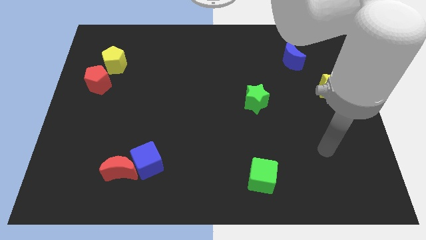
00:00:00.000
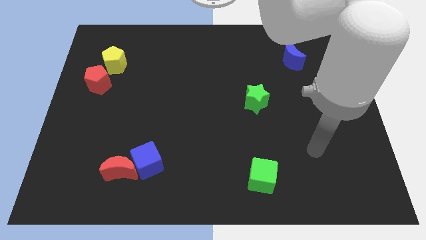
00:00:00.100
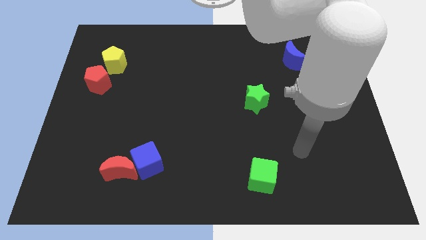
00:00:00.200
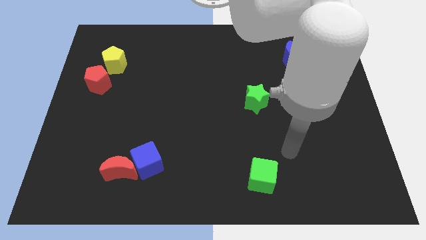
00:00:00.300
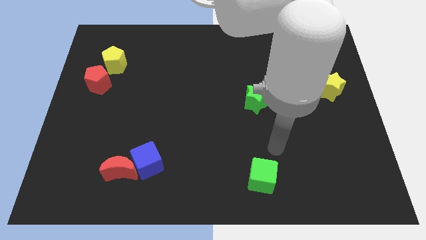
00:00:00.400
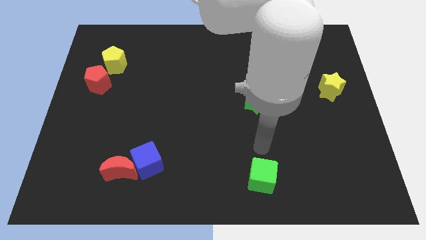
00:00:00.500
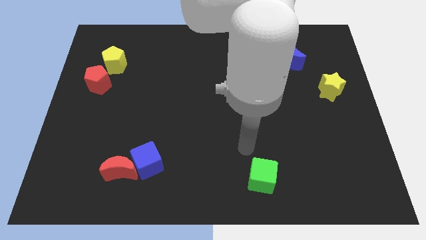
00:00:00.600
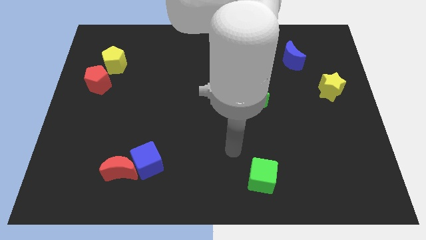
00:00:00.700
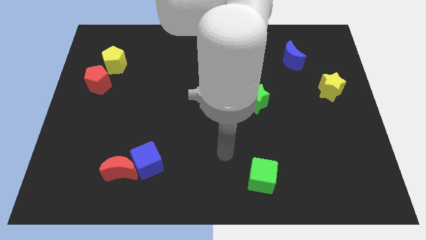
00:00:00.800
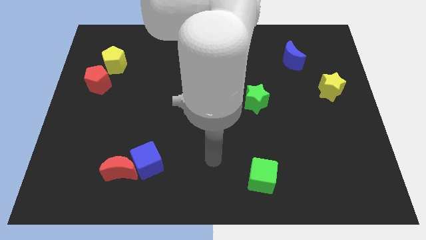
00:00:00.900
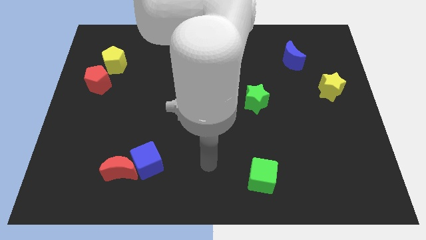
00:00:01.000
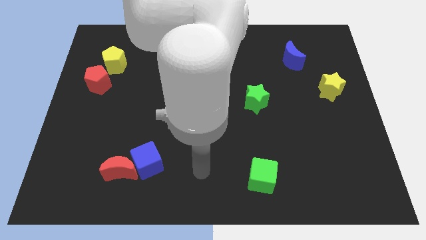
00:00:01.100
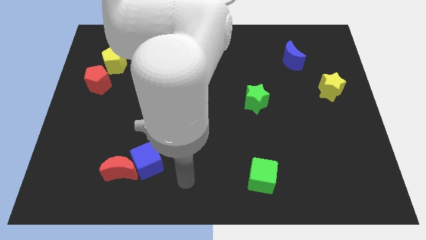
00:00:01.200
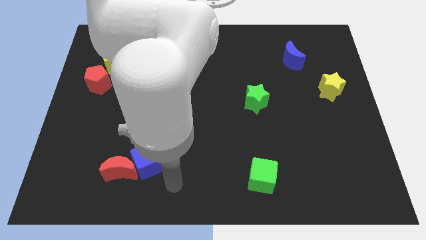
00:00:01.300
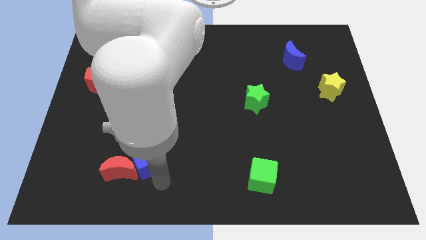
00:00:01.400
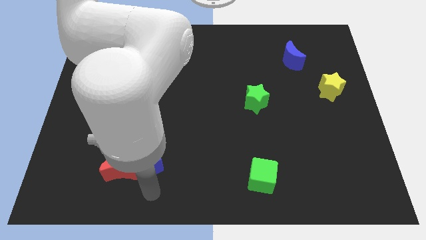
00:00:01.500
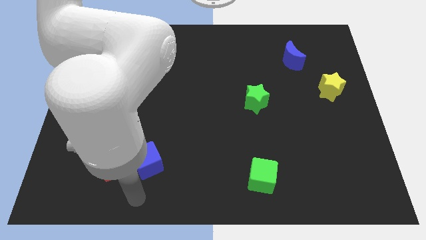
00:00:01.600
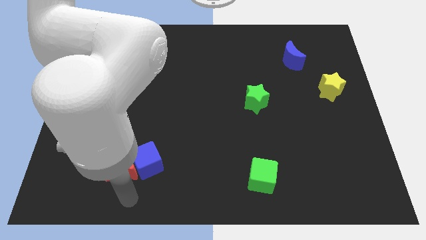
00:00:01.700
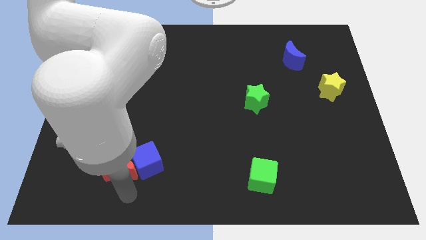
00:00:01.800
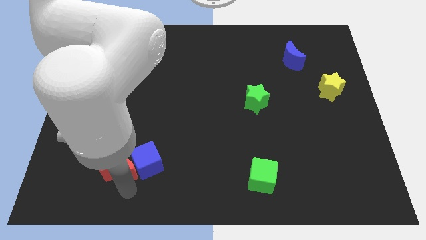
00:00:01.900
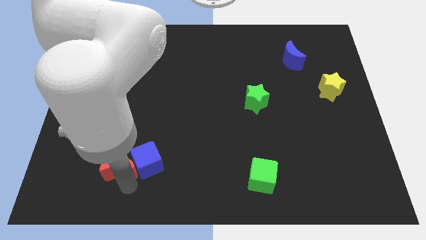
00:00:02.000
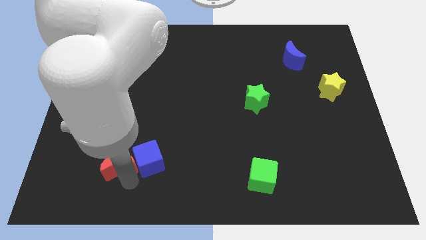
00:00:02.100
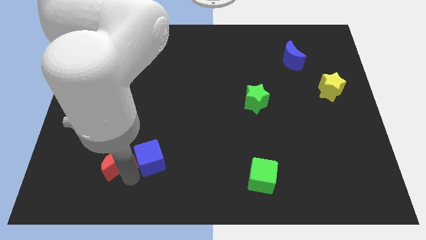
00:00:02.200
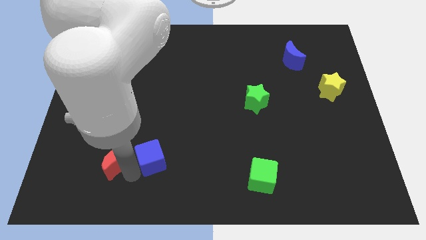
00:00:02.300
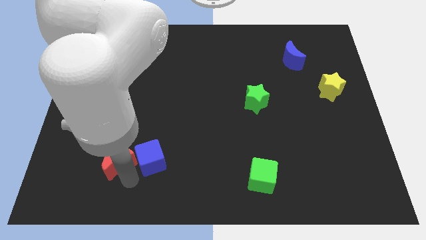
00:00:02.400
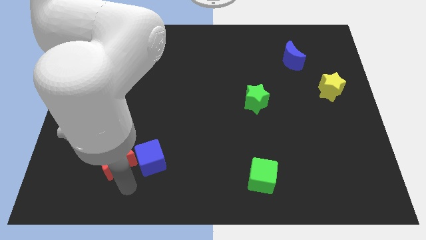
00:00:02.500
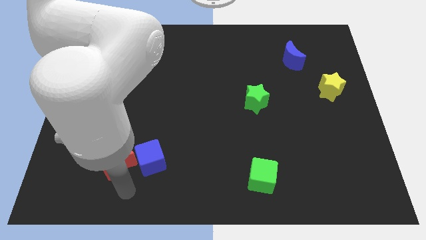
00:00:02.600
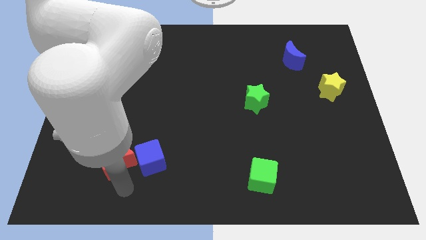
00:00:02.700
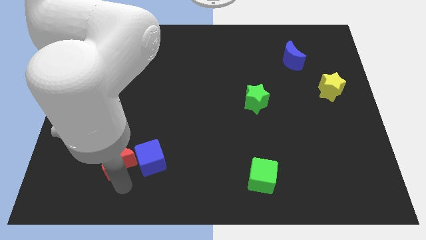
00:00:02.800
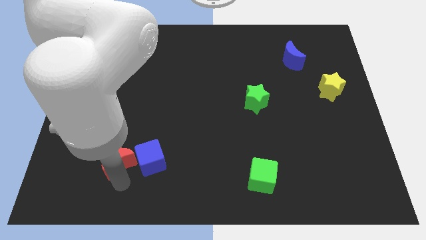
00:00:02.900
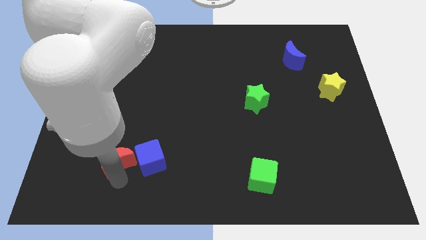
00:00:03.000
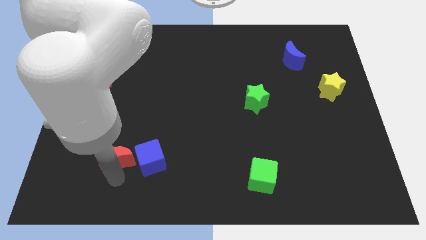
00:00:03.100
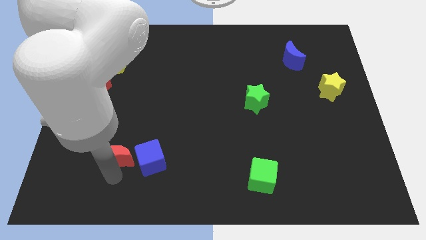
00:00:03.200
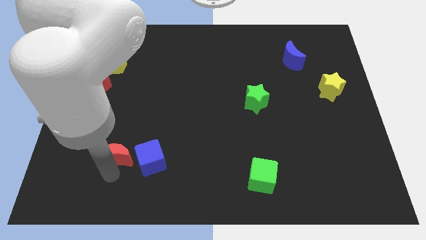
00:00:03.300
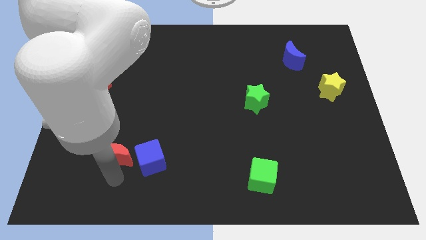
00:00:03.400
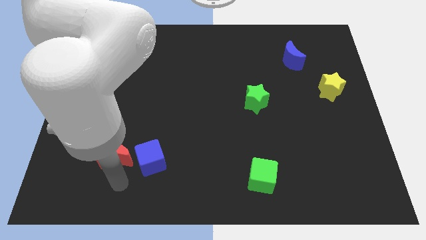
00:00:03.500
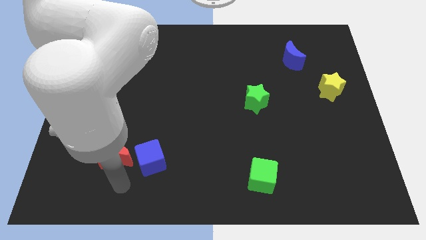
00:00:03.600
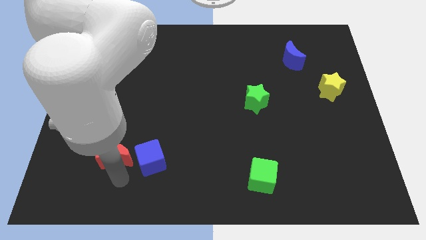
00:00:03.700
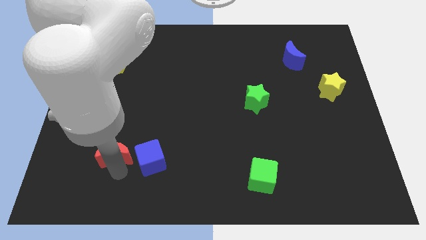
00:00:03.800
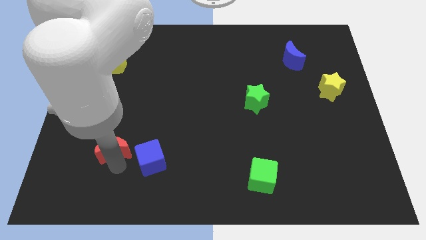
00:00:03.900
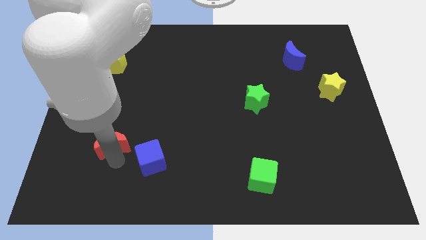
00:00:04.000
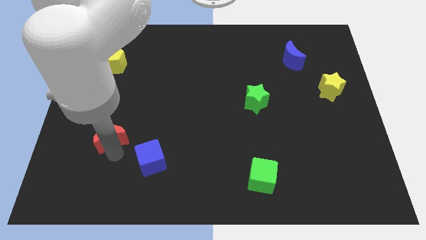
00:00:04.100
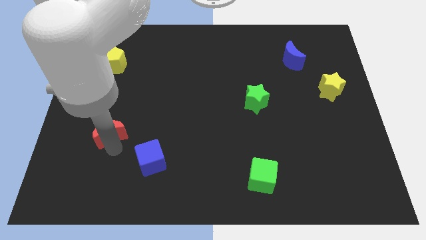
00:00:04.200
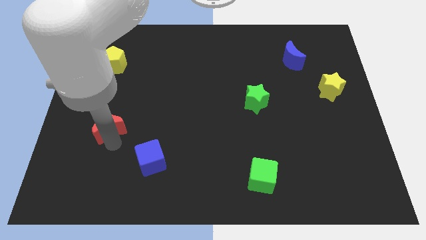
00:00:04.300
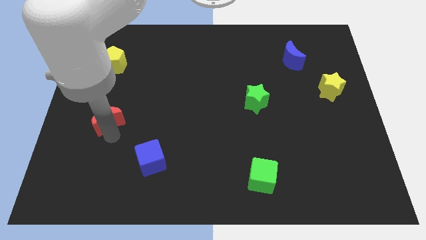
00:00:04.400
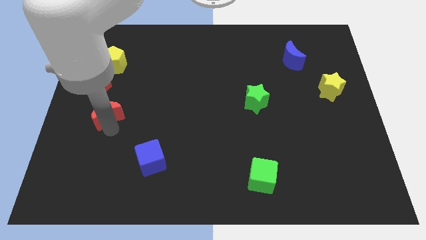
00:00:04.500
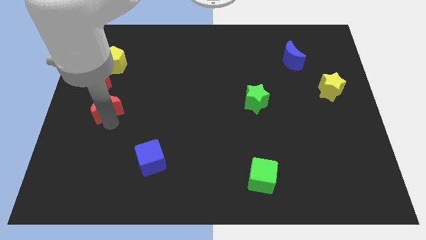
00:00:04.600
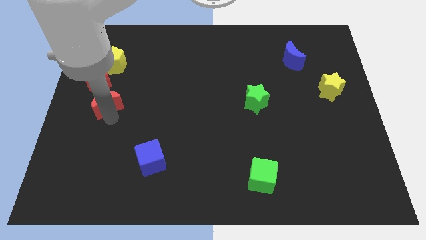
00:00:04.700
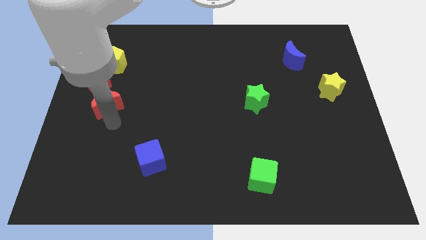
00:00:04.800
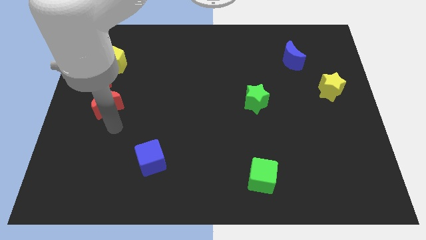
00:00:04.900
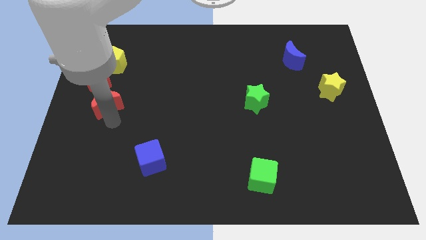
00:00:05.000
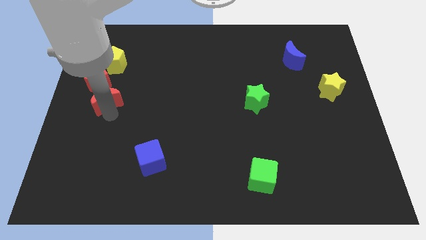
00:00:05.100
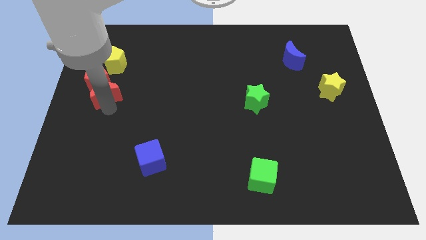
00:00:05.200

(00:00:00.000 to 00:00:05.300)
put the red moon close to the red pentagon

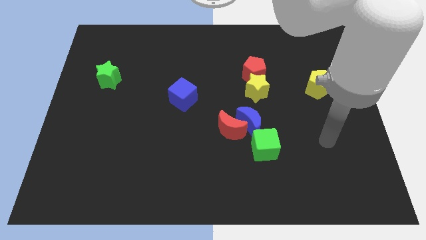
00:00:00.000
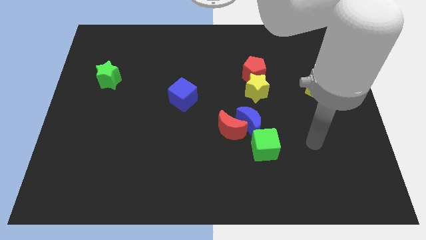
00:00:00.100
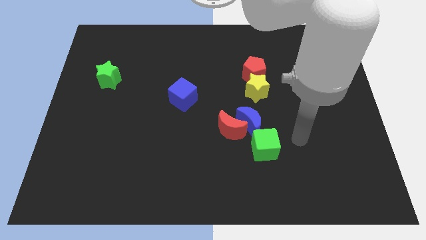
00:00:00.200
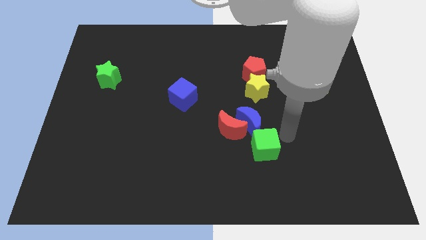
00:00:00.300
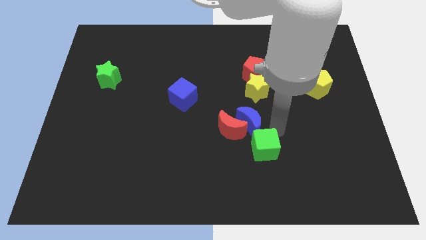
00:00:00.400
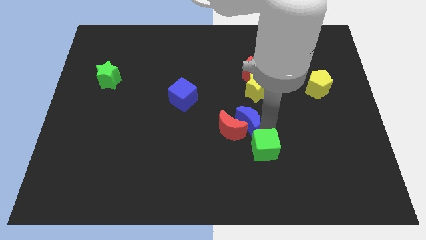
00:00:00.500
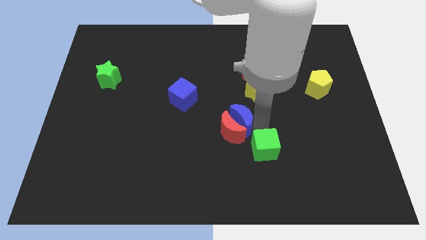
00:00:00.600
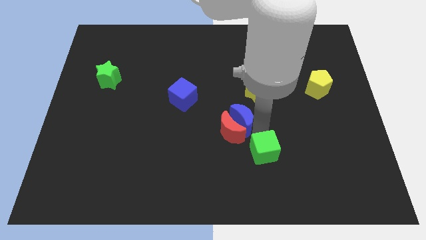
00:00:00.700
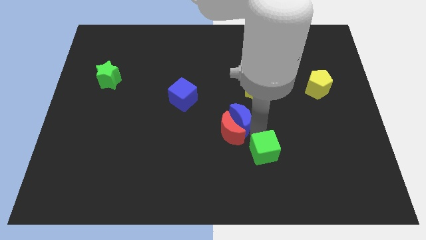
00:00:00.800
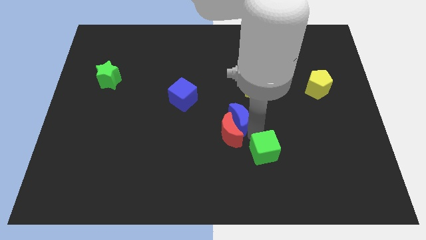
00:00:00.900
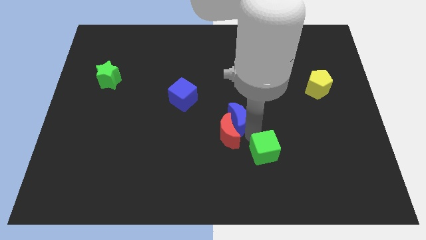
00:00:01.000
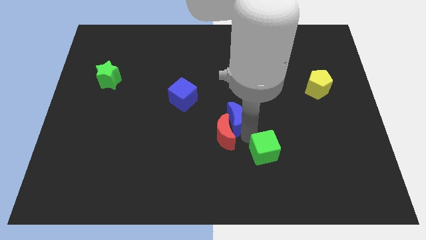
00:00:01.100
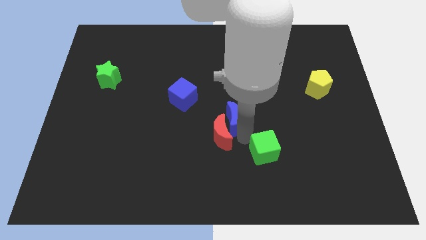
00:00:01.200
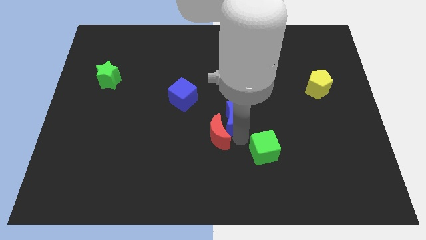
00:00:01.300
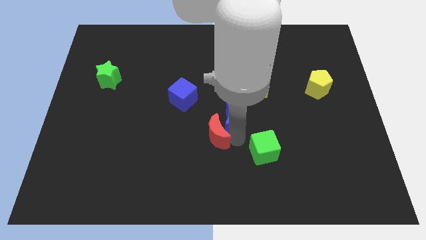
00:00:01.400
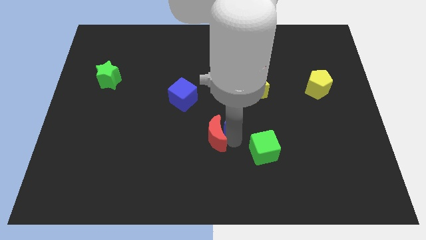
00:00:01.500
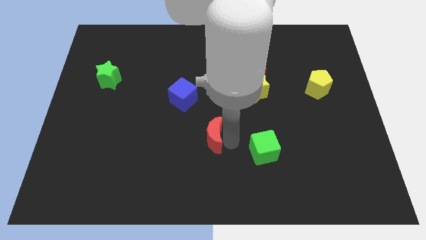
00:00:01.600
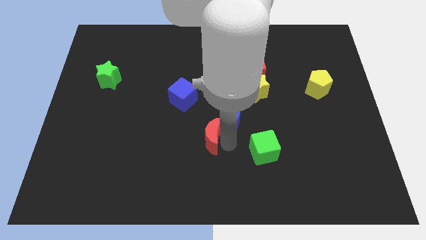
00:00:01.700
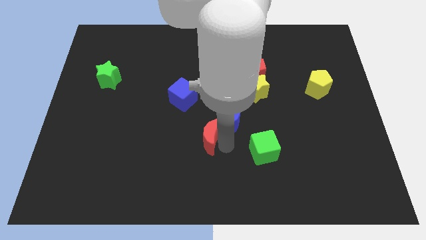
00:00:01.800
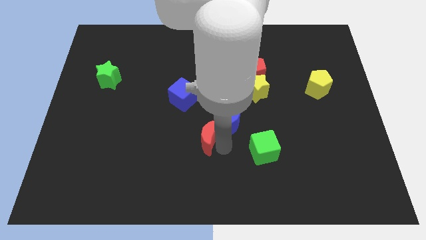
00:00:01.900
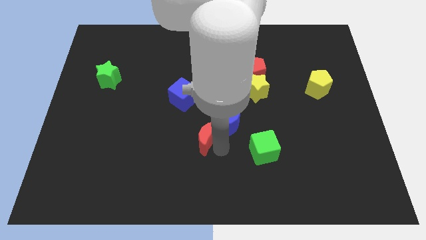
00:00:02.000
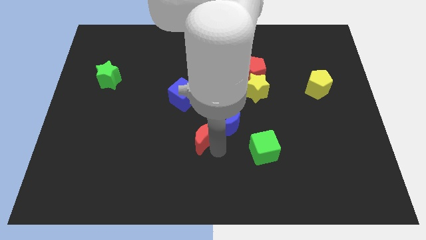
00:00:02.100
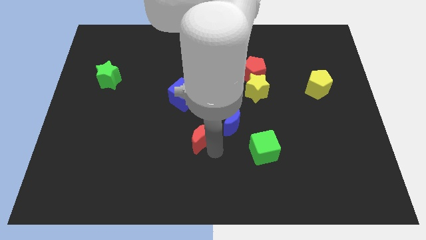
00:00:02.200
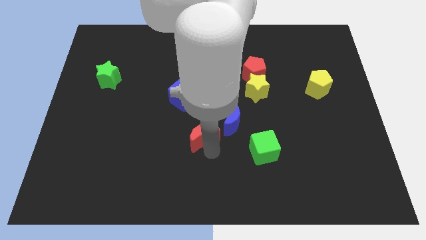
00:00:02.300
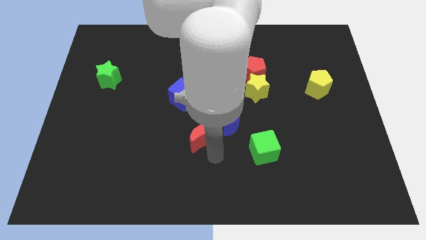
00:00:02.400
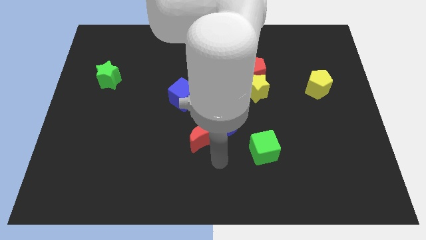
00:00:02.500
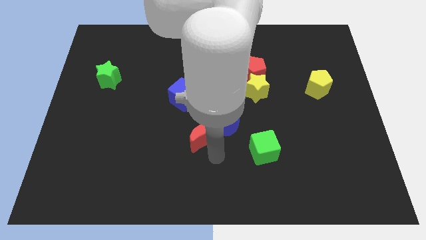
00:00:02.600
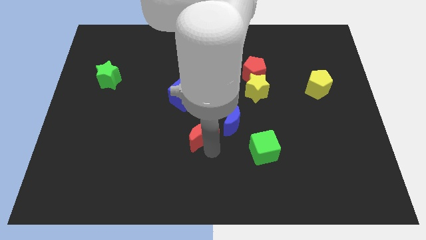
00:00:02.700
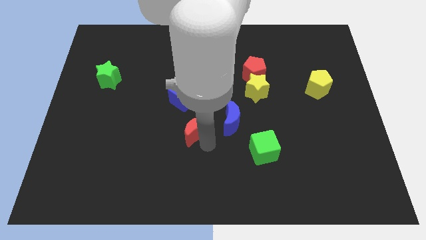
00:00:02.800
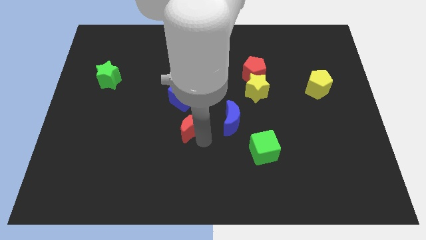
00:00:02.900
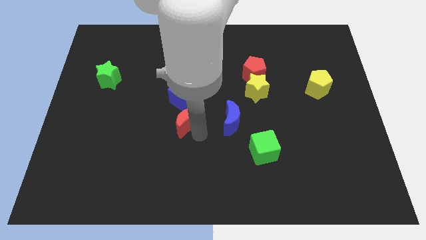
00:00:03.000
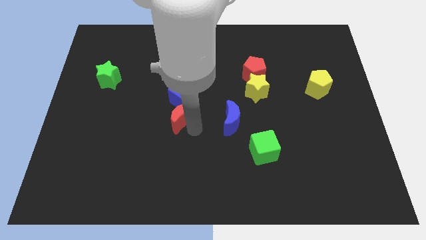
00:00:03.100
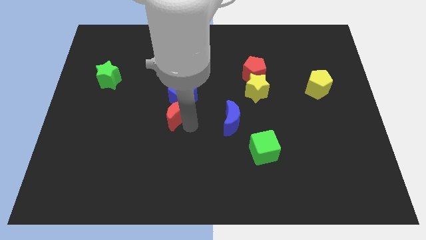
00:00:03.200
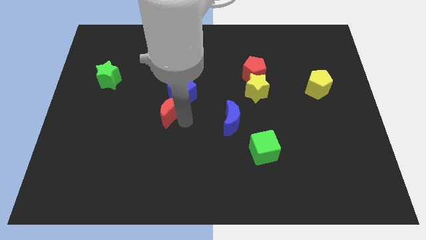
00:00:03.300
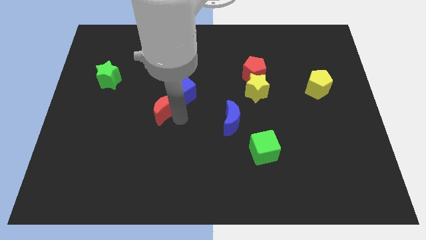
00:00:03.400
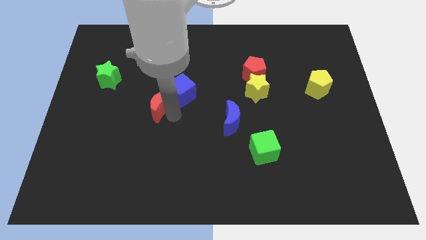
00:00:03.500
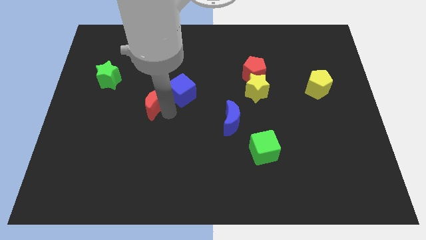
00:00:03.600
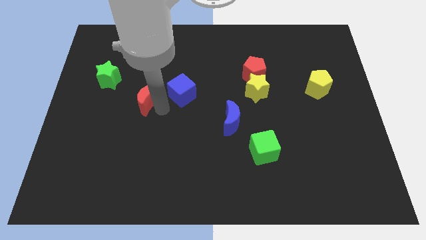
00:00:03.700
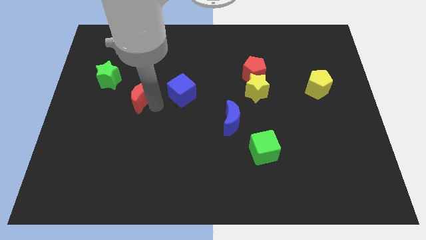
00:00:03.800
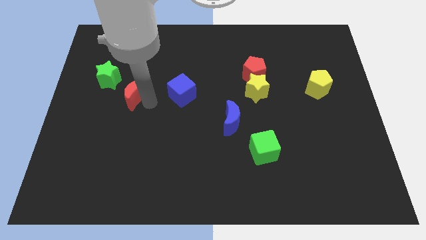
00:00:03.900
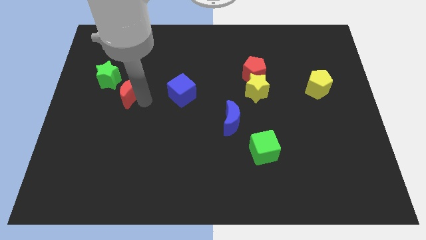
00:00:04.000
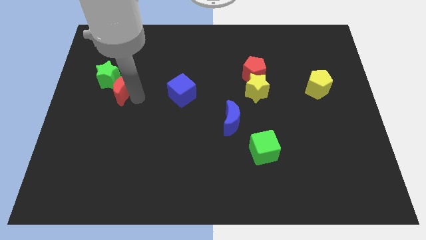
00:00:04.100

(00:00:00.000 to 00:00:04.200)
move the red moon to the green star
